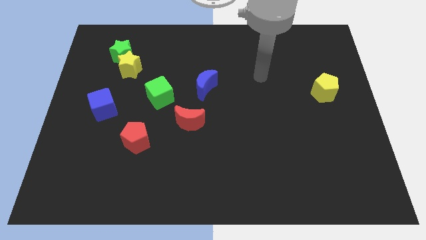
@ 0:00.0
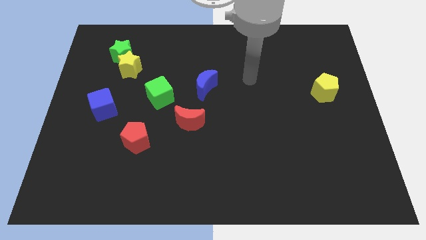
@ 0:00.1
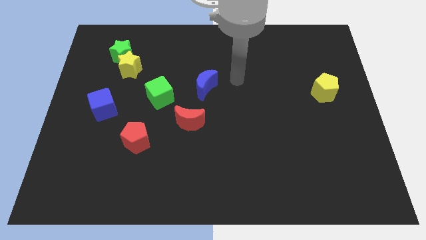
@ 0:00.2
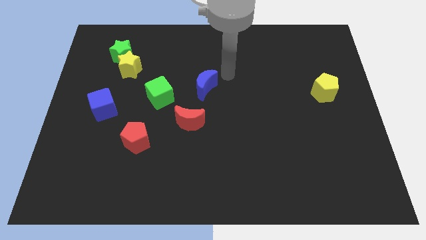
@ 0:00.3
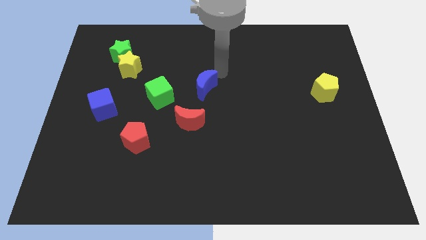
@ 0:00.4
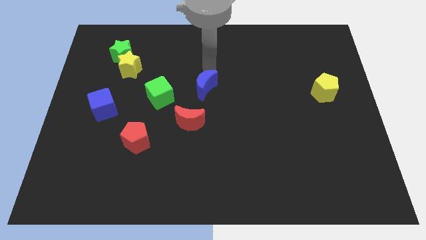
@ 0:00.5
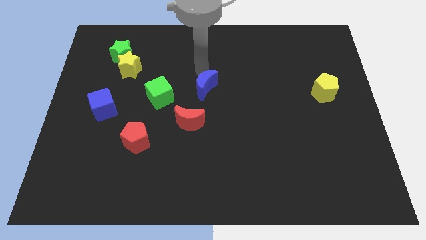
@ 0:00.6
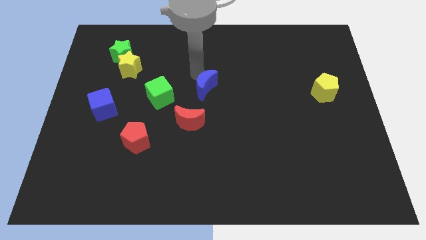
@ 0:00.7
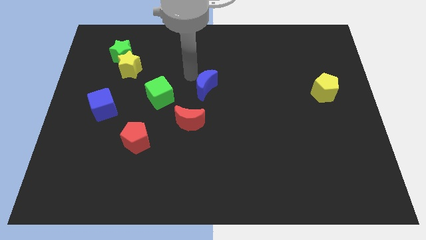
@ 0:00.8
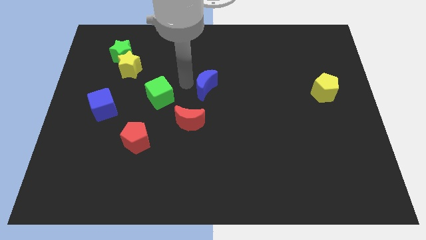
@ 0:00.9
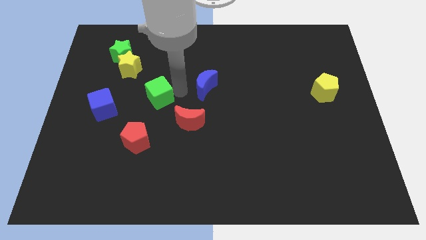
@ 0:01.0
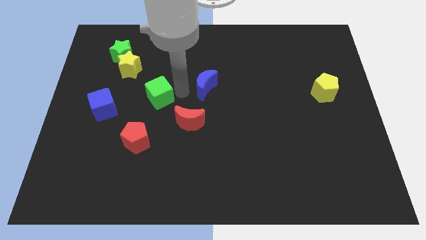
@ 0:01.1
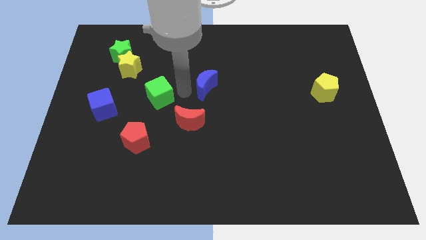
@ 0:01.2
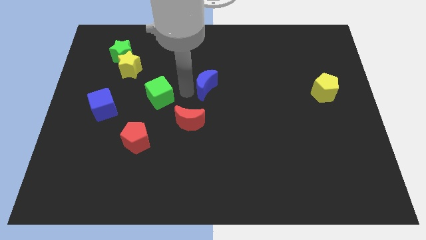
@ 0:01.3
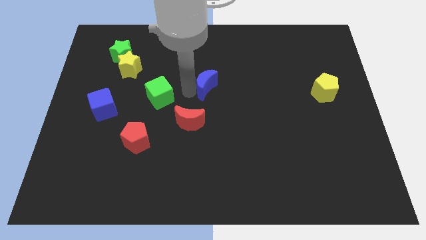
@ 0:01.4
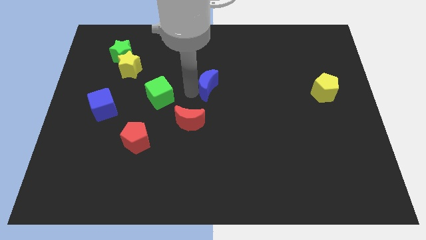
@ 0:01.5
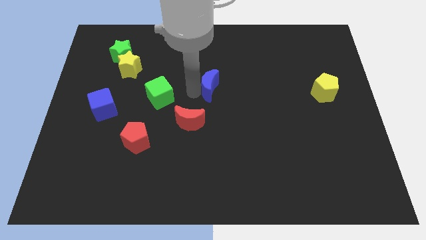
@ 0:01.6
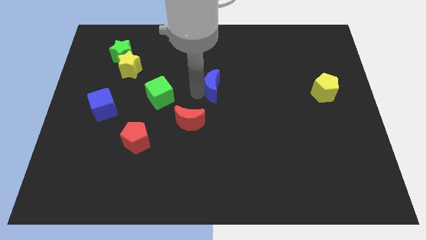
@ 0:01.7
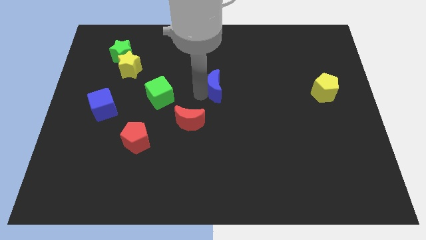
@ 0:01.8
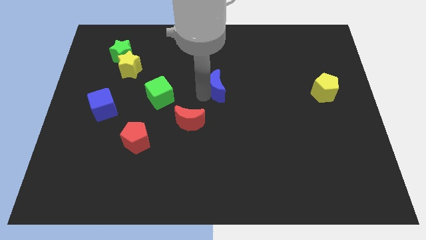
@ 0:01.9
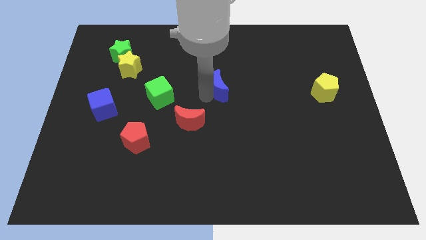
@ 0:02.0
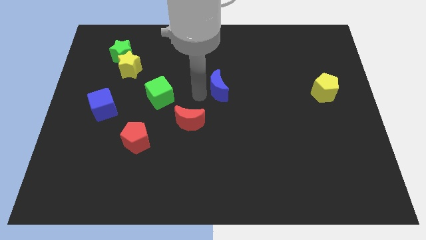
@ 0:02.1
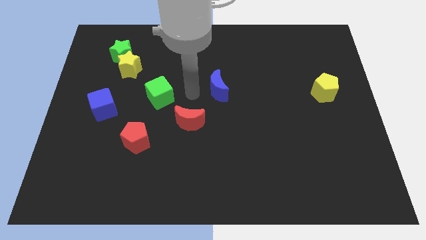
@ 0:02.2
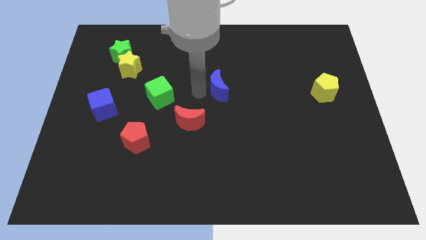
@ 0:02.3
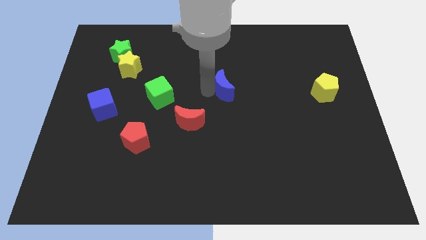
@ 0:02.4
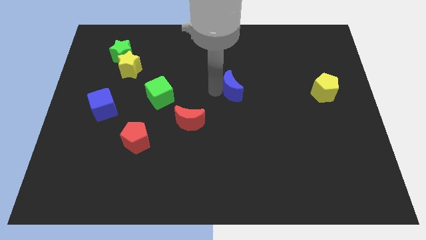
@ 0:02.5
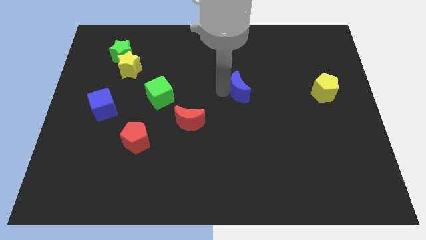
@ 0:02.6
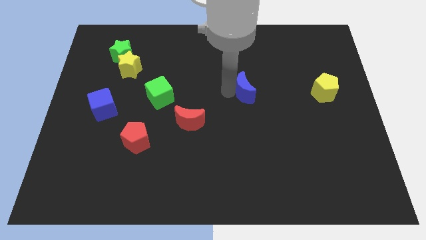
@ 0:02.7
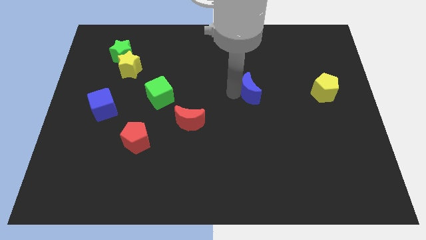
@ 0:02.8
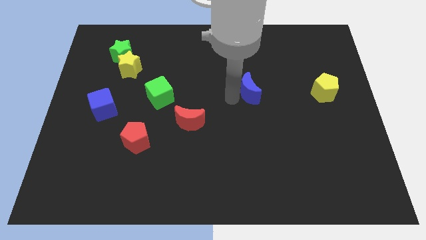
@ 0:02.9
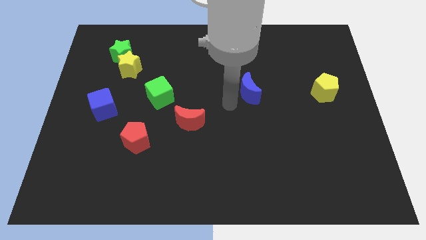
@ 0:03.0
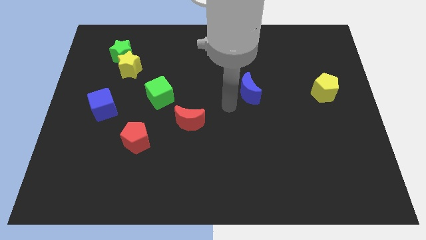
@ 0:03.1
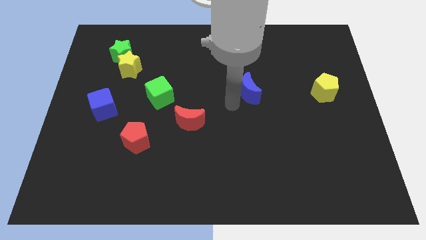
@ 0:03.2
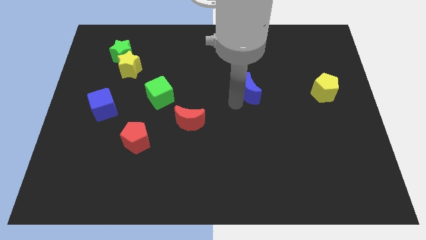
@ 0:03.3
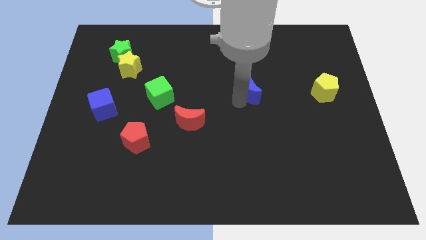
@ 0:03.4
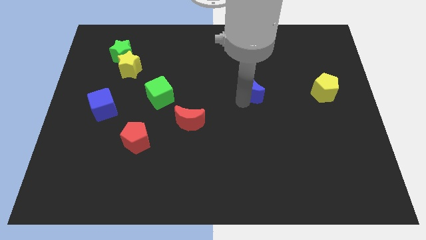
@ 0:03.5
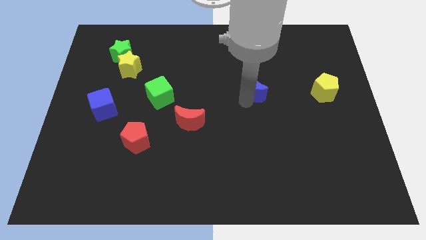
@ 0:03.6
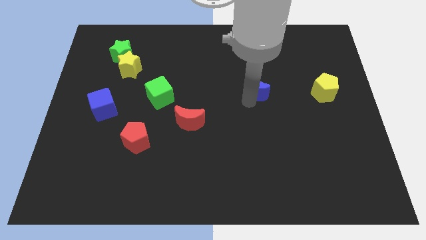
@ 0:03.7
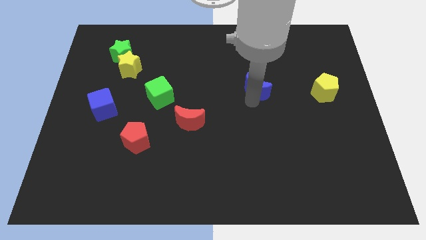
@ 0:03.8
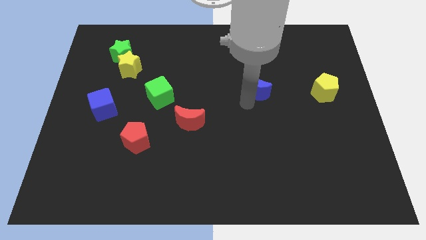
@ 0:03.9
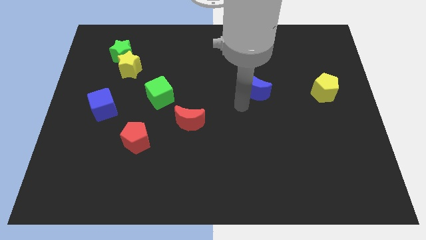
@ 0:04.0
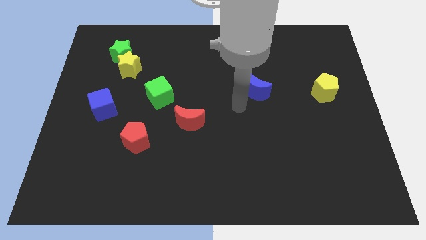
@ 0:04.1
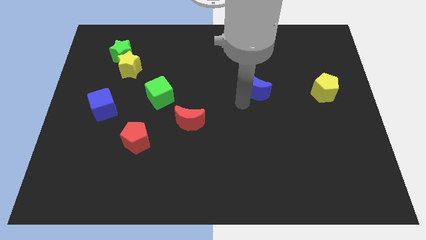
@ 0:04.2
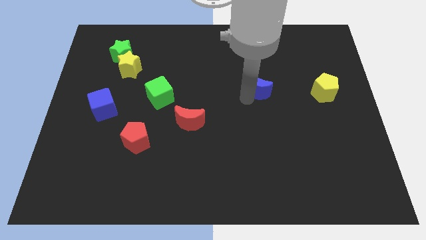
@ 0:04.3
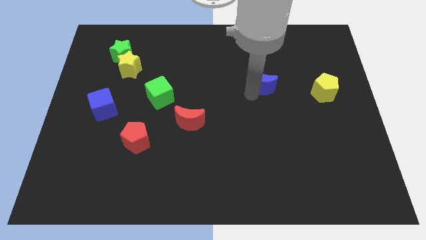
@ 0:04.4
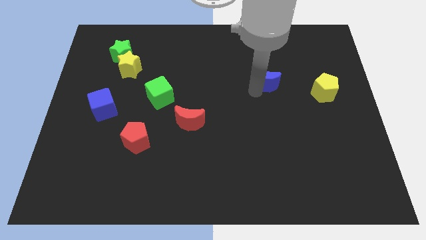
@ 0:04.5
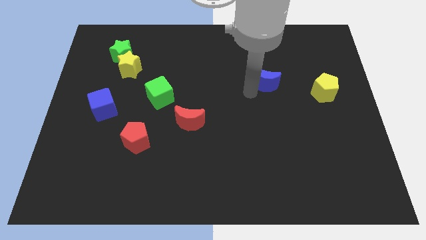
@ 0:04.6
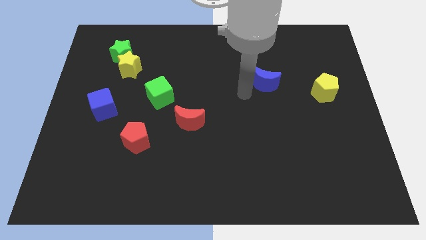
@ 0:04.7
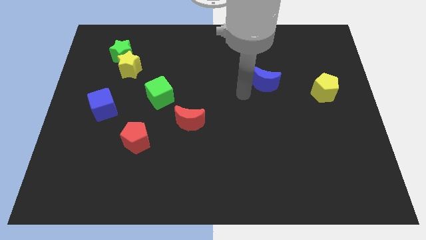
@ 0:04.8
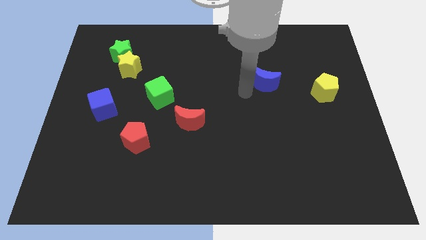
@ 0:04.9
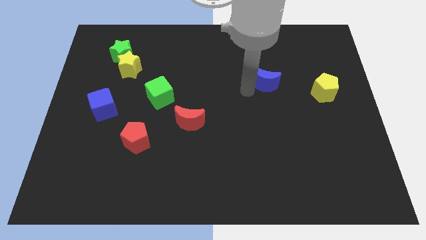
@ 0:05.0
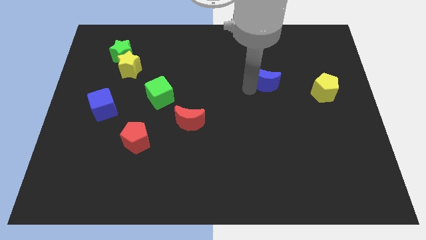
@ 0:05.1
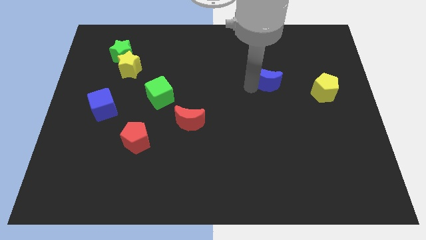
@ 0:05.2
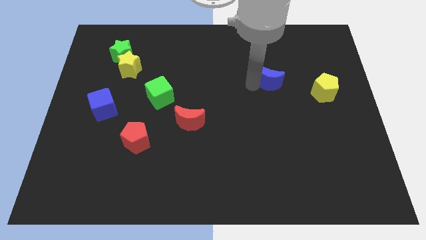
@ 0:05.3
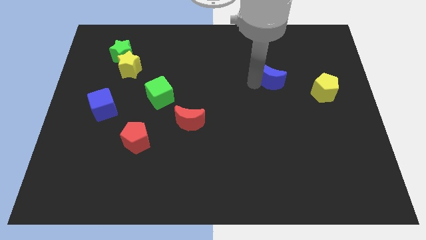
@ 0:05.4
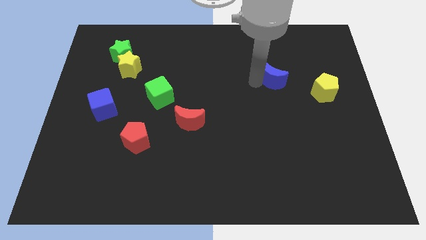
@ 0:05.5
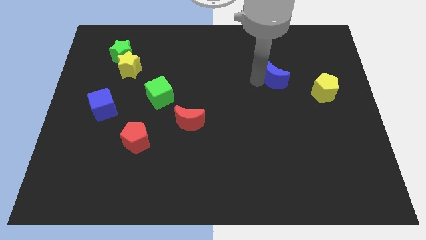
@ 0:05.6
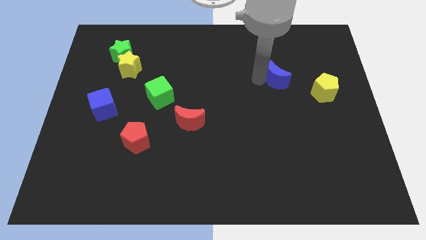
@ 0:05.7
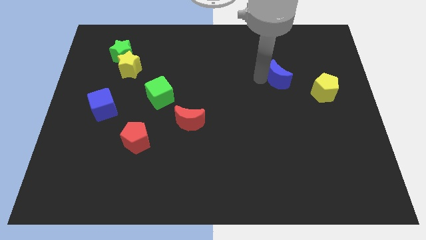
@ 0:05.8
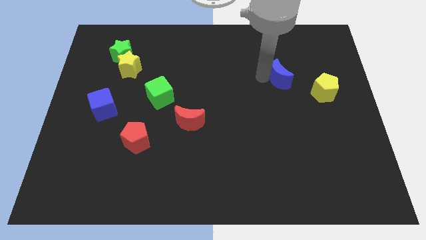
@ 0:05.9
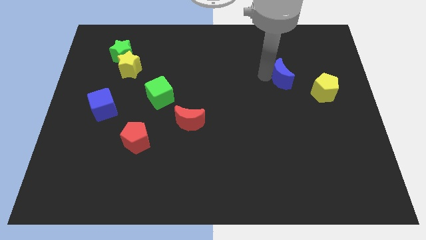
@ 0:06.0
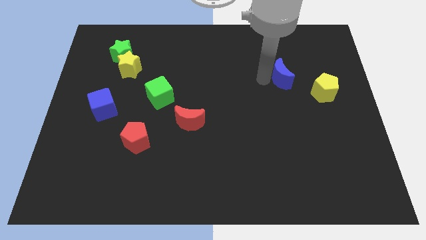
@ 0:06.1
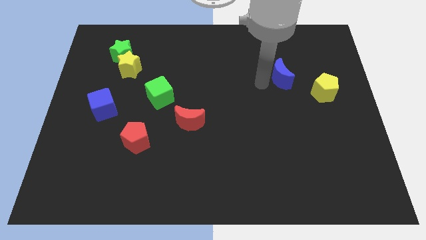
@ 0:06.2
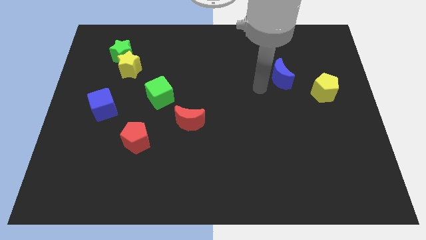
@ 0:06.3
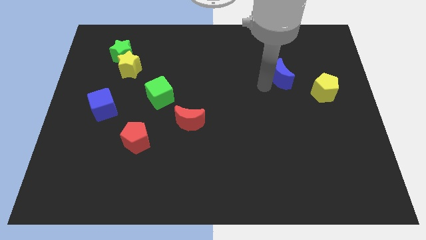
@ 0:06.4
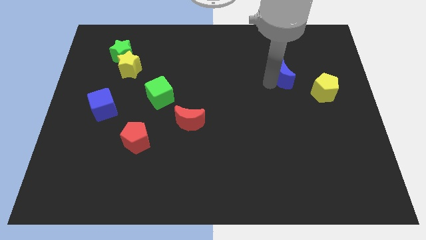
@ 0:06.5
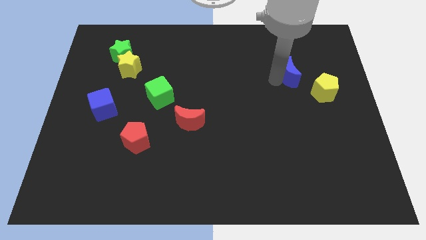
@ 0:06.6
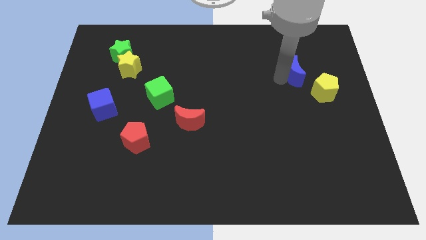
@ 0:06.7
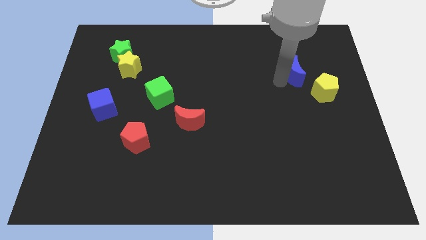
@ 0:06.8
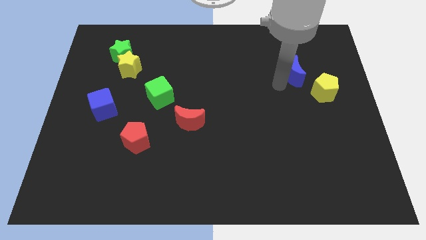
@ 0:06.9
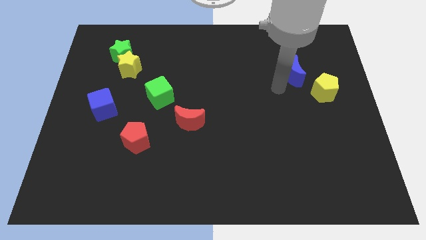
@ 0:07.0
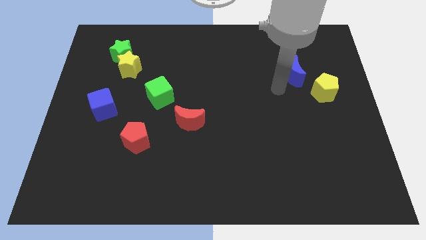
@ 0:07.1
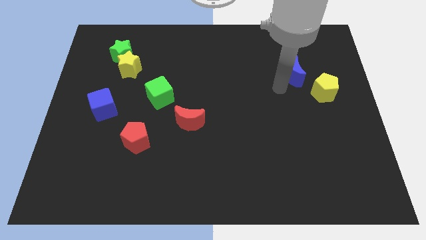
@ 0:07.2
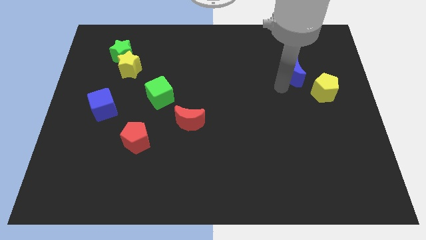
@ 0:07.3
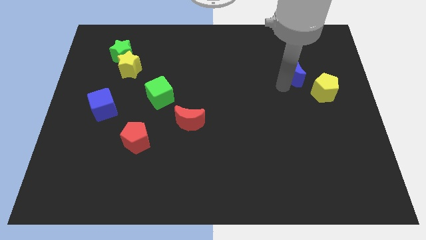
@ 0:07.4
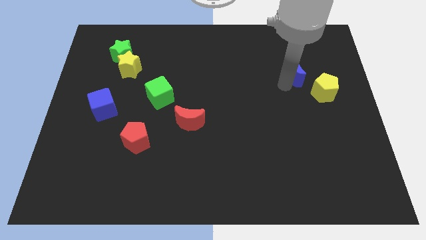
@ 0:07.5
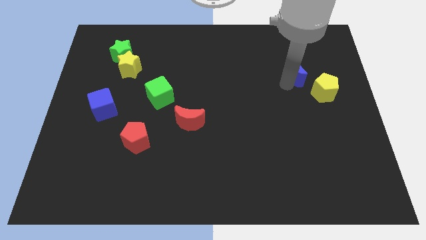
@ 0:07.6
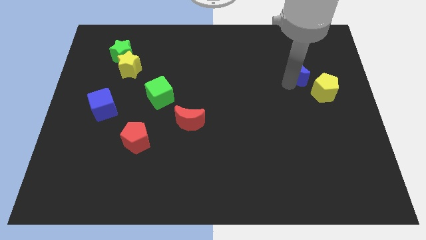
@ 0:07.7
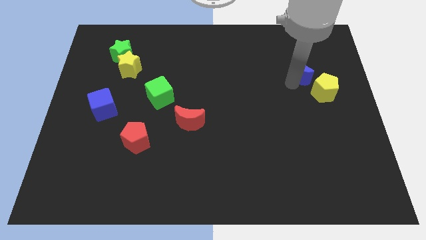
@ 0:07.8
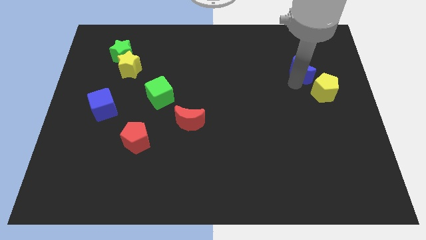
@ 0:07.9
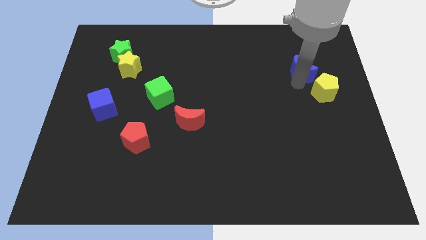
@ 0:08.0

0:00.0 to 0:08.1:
put the blue moon to the top of the yellow pentagon
